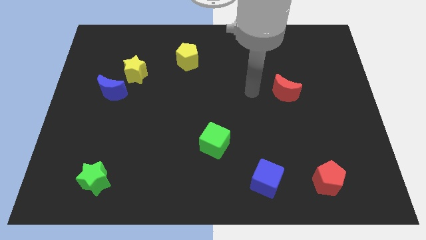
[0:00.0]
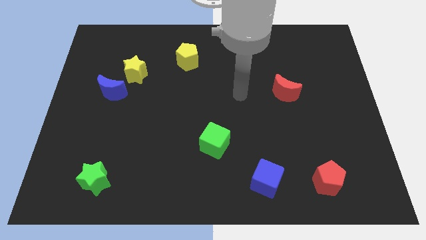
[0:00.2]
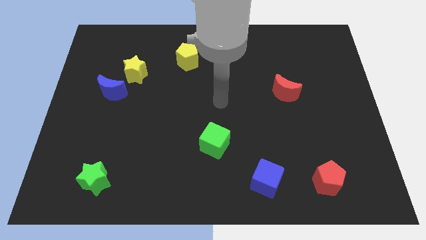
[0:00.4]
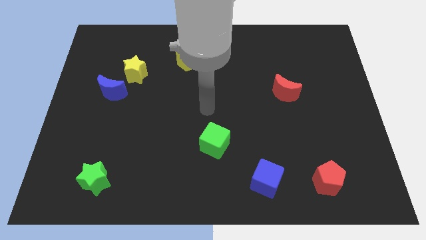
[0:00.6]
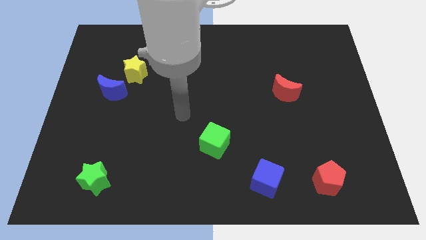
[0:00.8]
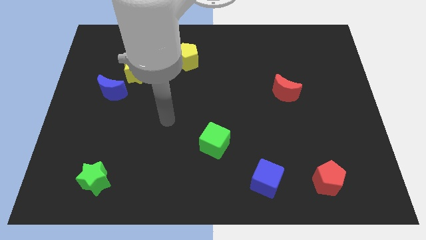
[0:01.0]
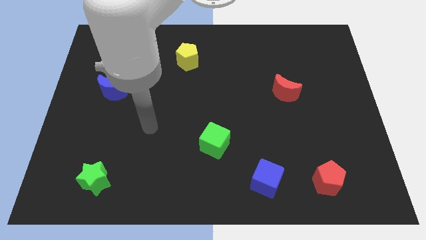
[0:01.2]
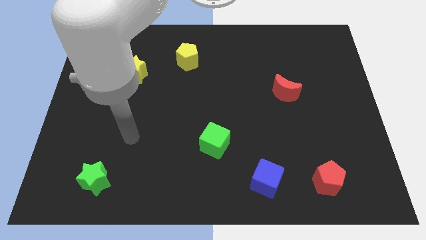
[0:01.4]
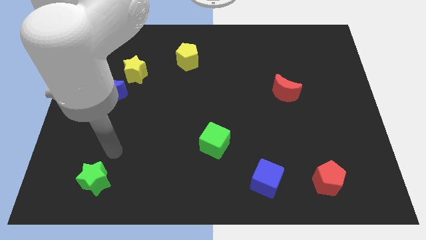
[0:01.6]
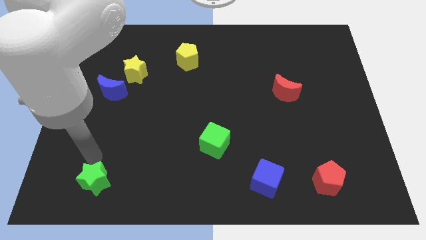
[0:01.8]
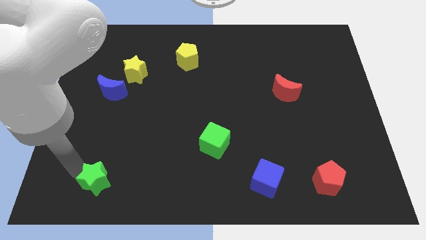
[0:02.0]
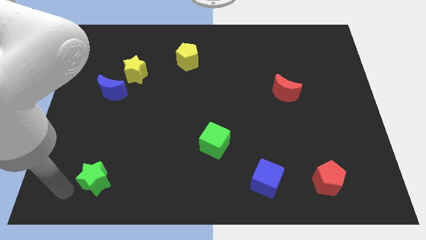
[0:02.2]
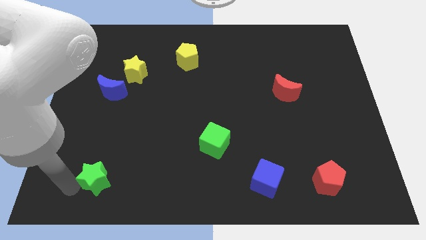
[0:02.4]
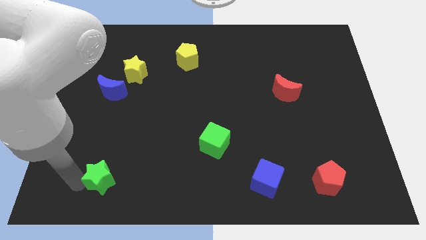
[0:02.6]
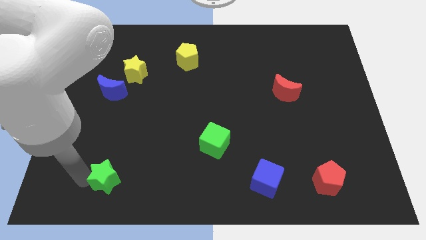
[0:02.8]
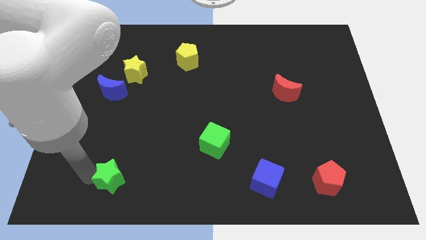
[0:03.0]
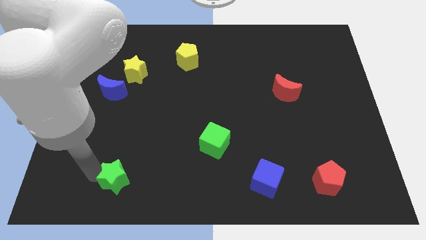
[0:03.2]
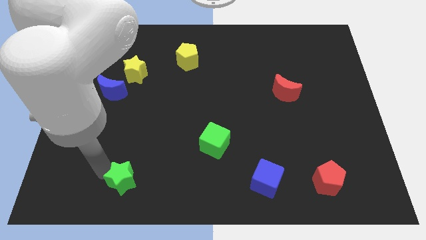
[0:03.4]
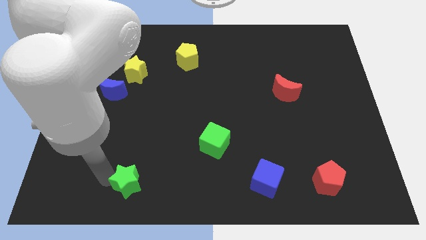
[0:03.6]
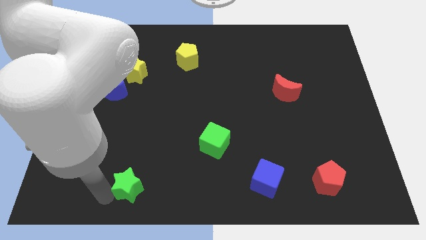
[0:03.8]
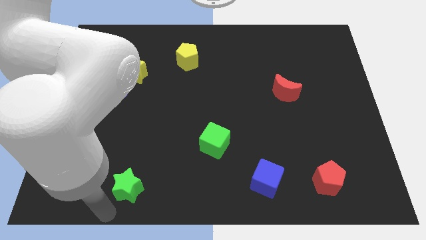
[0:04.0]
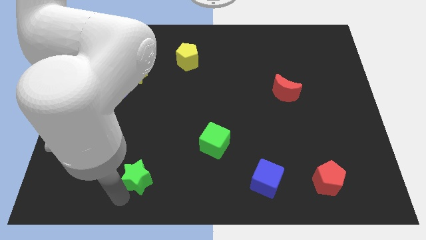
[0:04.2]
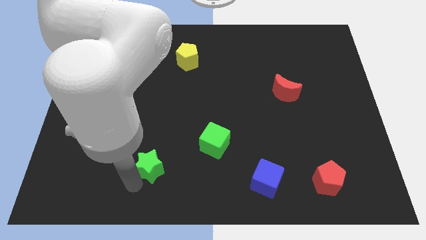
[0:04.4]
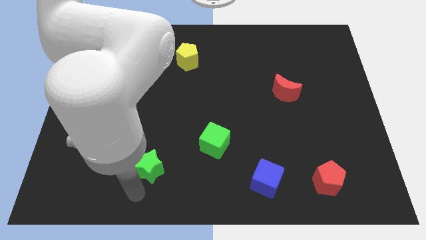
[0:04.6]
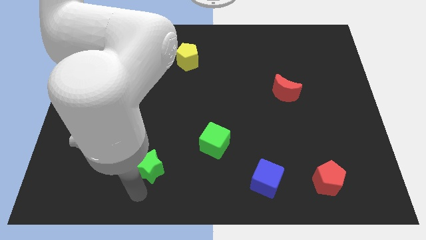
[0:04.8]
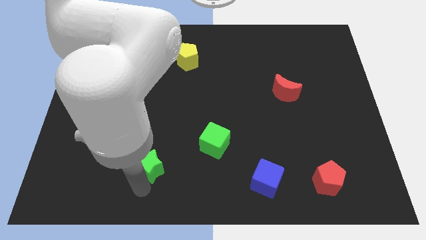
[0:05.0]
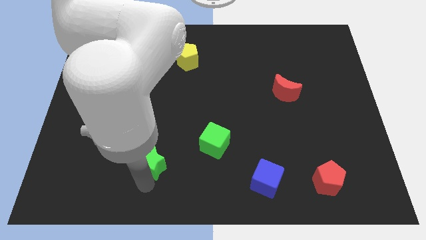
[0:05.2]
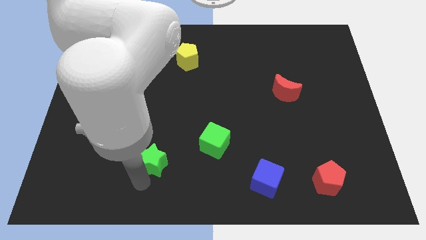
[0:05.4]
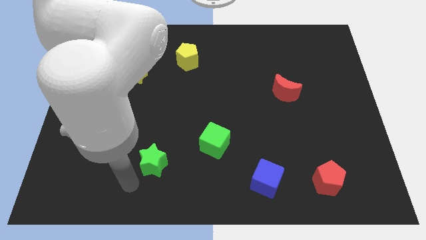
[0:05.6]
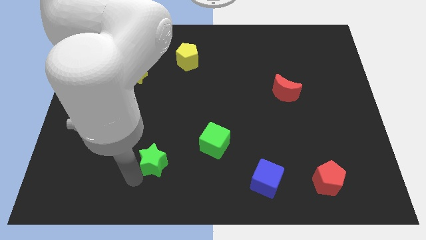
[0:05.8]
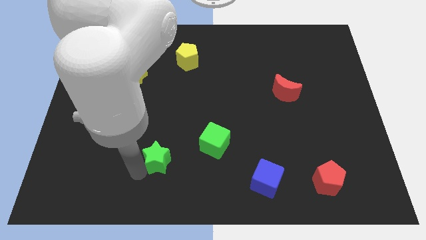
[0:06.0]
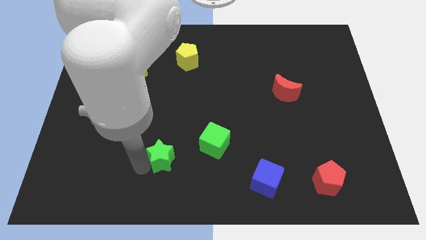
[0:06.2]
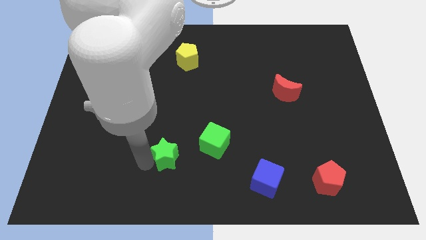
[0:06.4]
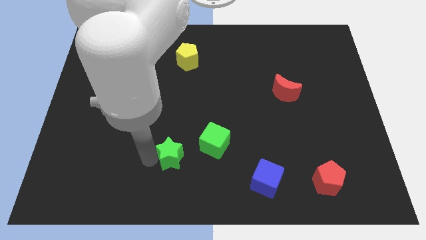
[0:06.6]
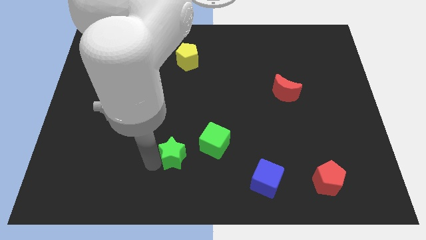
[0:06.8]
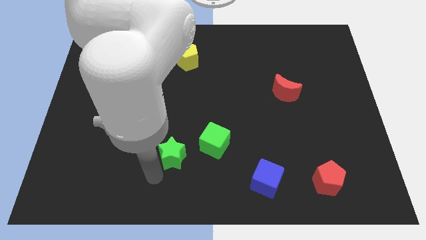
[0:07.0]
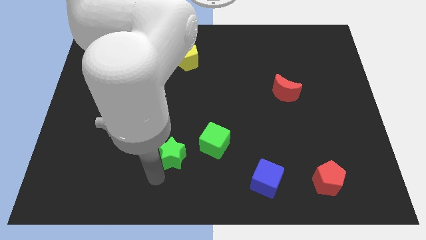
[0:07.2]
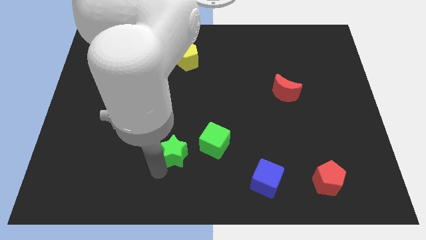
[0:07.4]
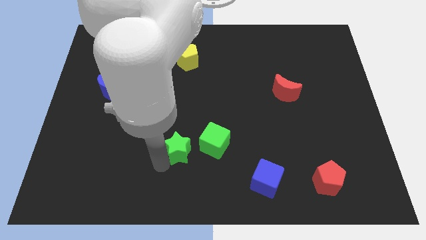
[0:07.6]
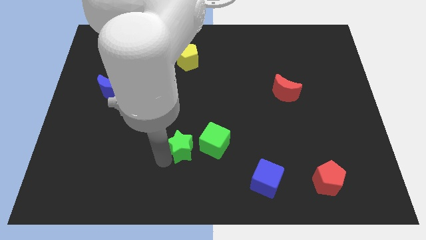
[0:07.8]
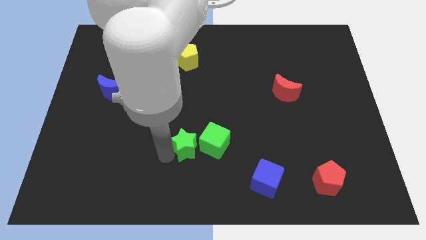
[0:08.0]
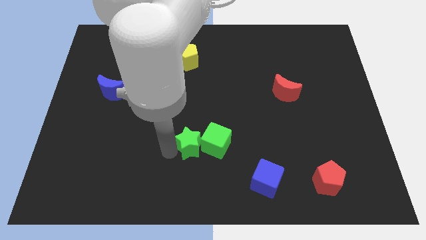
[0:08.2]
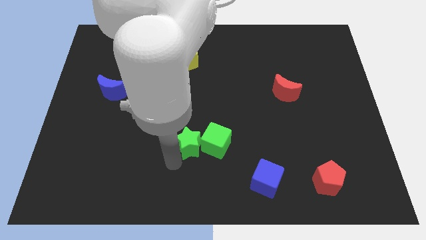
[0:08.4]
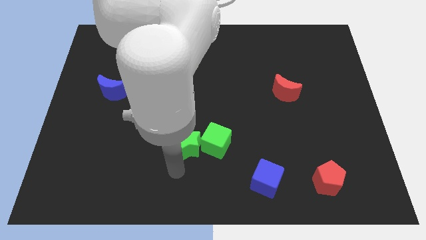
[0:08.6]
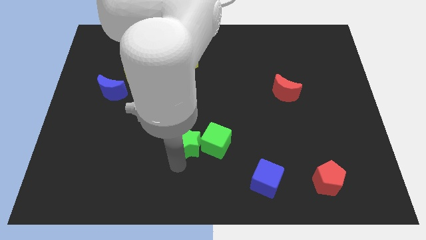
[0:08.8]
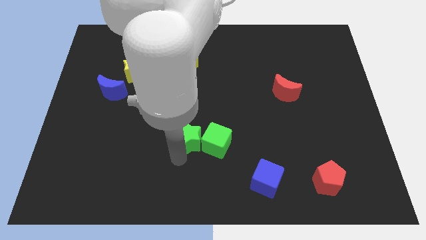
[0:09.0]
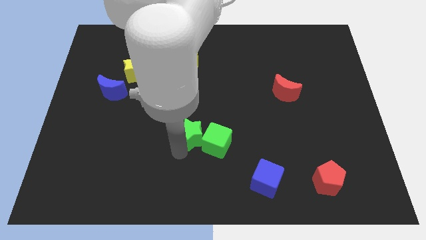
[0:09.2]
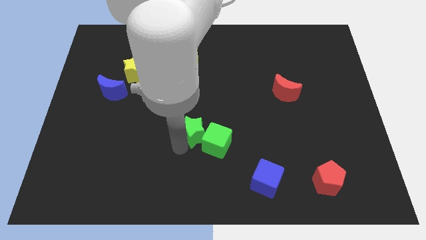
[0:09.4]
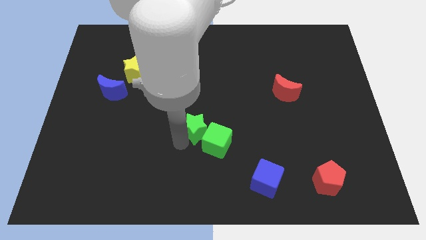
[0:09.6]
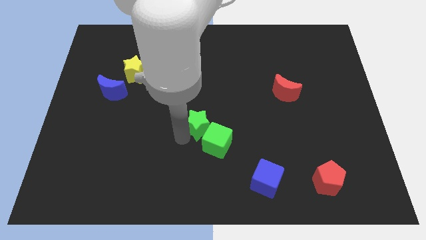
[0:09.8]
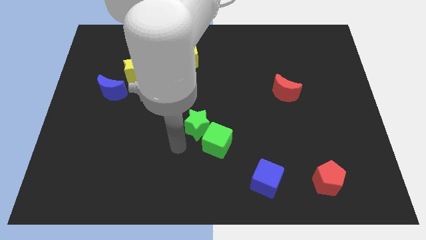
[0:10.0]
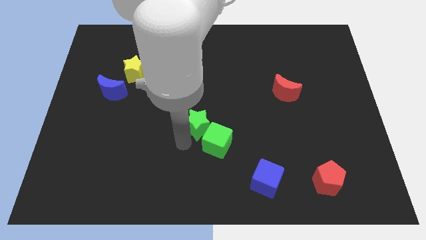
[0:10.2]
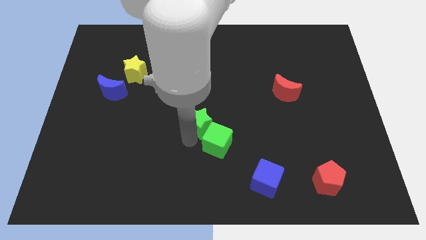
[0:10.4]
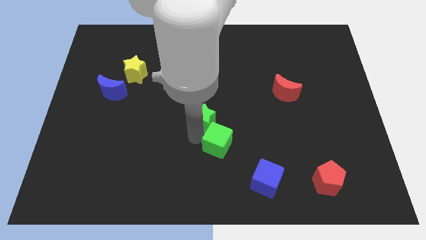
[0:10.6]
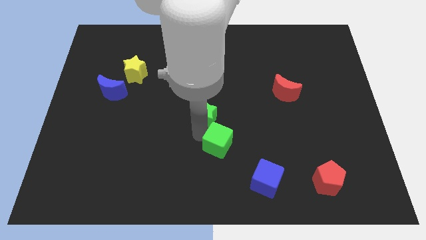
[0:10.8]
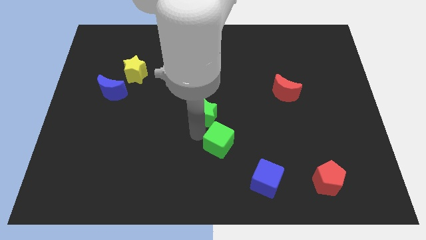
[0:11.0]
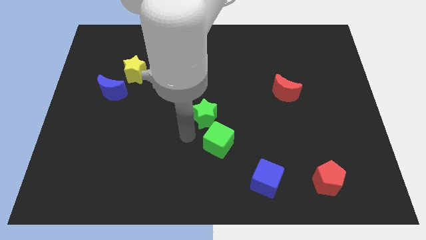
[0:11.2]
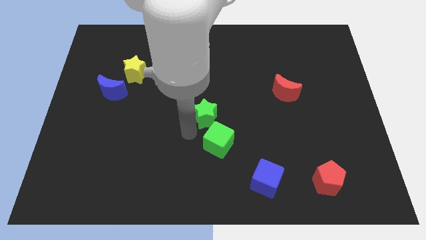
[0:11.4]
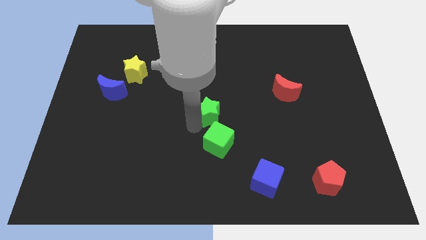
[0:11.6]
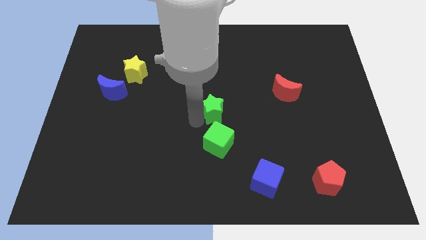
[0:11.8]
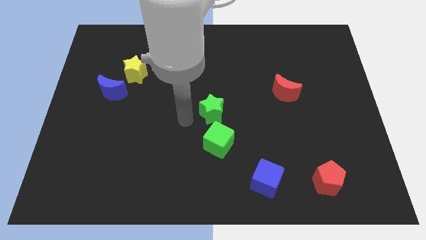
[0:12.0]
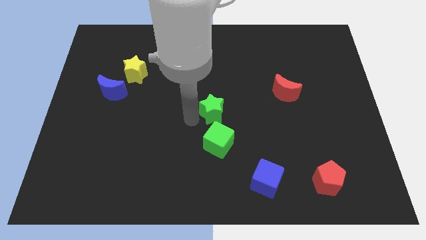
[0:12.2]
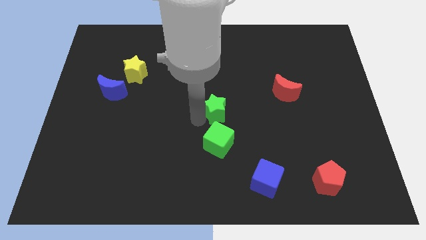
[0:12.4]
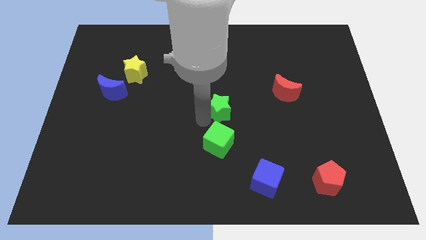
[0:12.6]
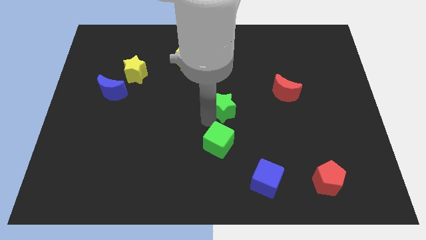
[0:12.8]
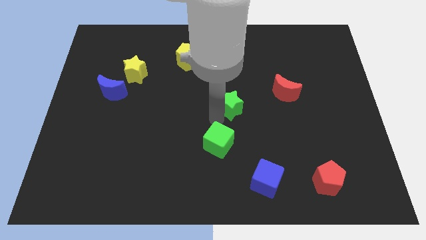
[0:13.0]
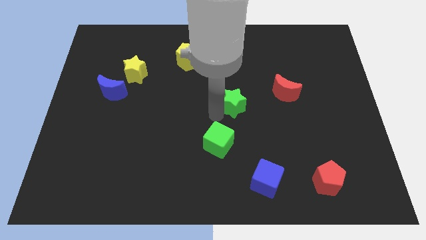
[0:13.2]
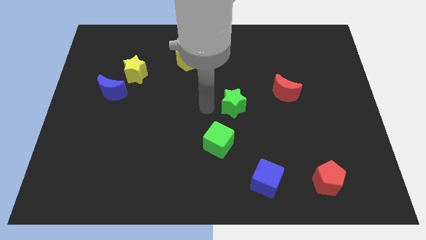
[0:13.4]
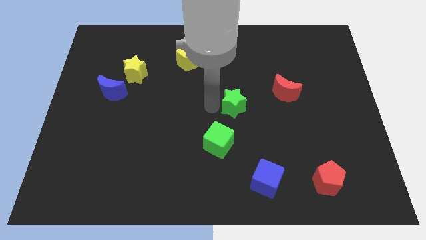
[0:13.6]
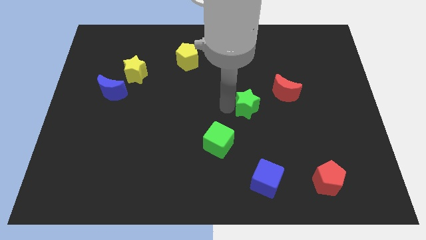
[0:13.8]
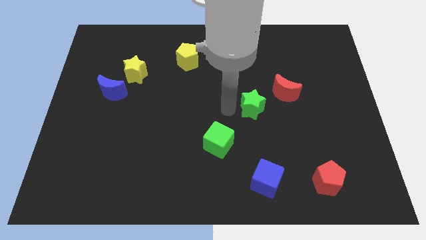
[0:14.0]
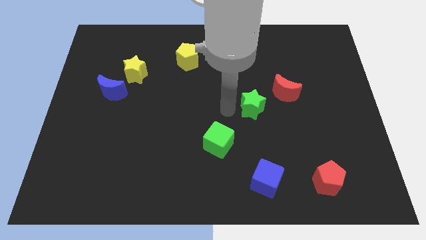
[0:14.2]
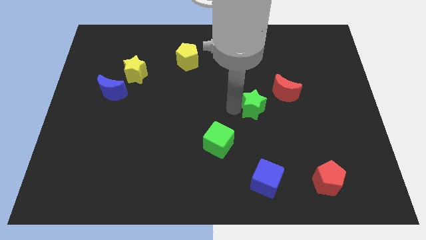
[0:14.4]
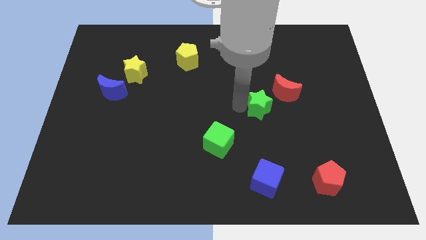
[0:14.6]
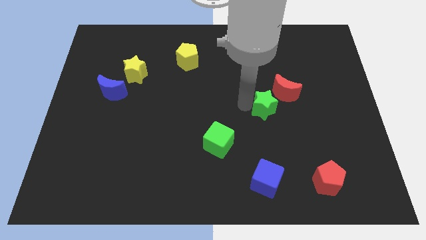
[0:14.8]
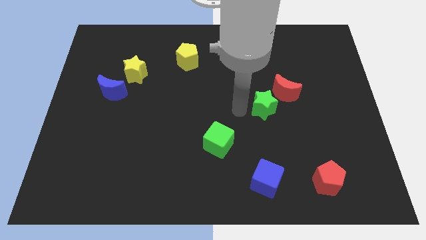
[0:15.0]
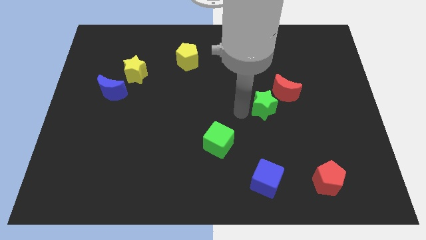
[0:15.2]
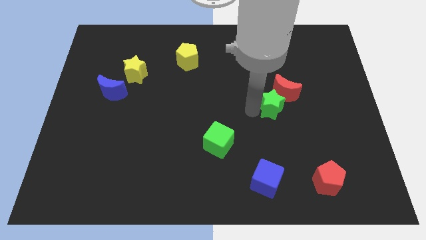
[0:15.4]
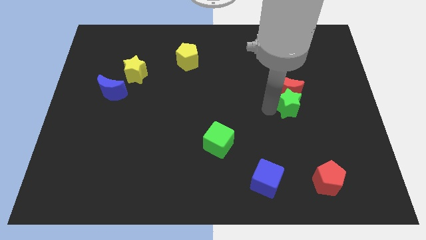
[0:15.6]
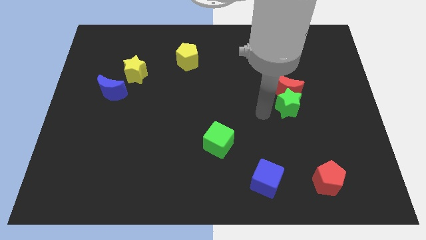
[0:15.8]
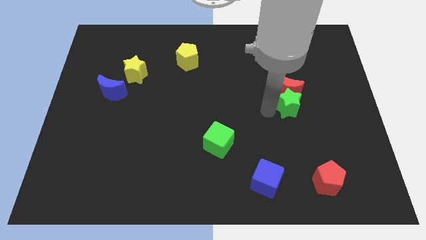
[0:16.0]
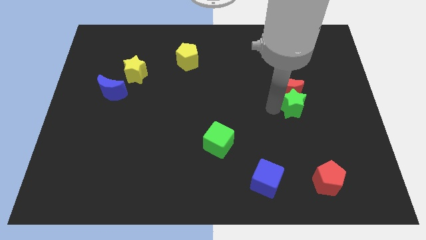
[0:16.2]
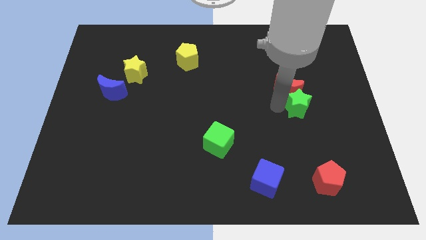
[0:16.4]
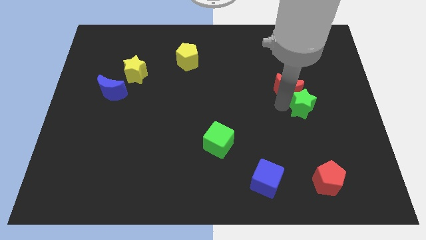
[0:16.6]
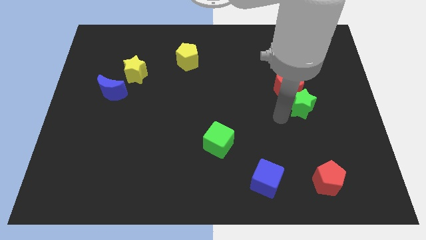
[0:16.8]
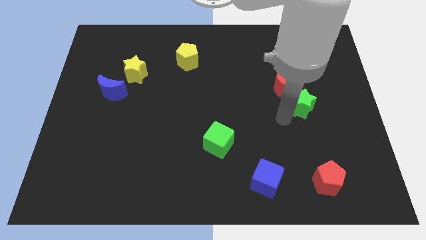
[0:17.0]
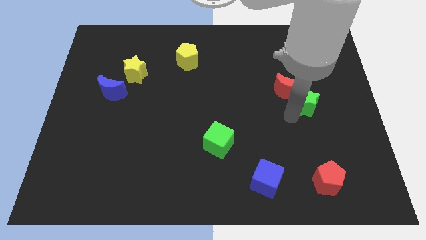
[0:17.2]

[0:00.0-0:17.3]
push the green star to the right side of the red moon
